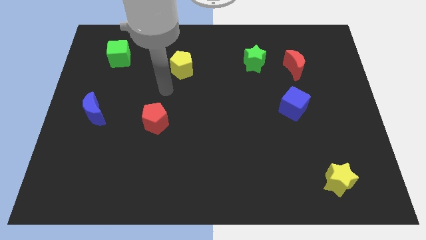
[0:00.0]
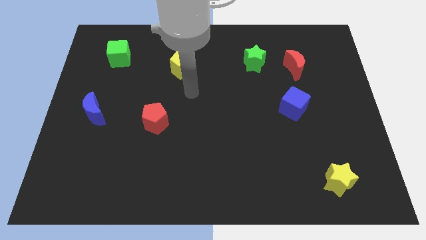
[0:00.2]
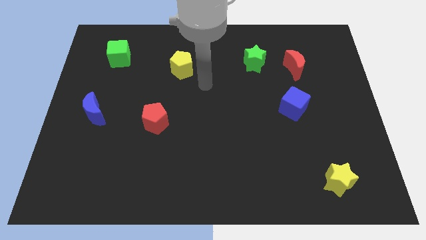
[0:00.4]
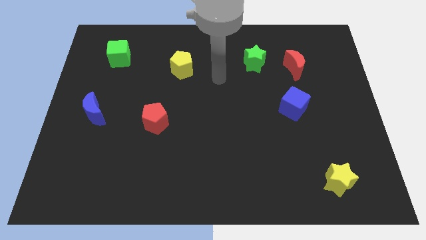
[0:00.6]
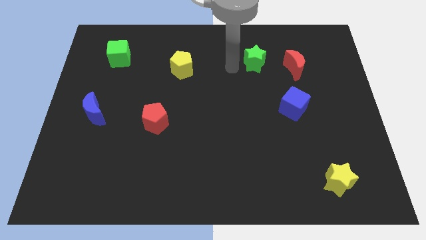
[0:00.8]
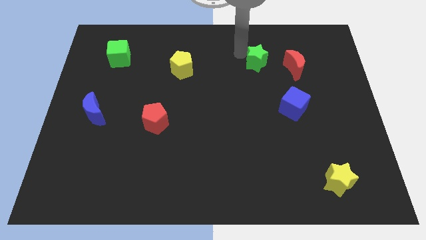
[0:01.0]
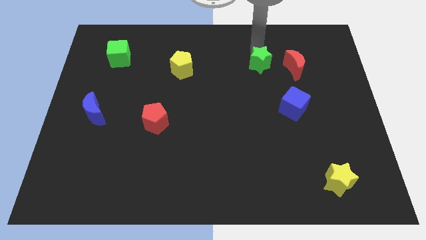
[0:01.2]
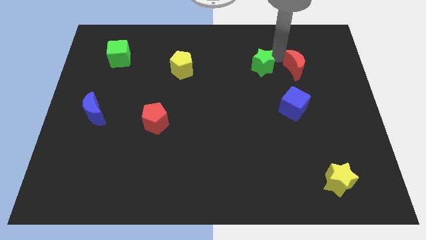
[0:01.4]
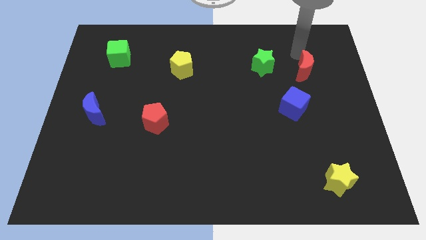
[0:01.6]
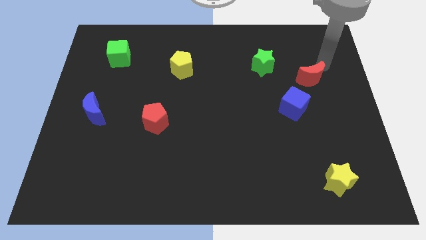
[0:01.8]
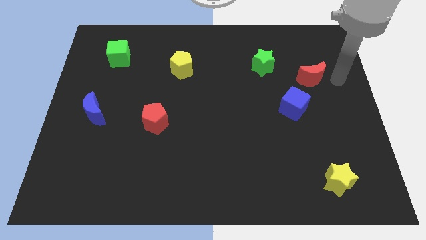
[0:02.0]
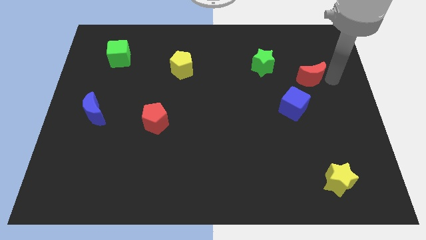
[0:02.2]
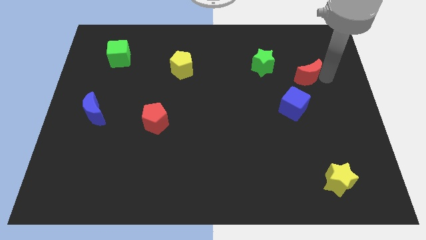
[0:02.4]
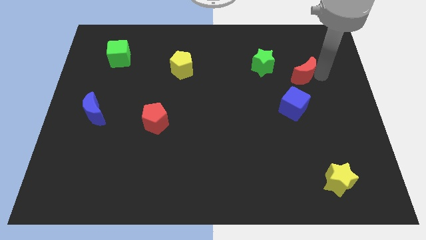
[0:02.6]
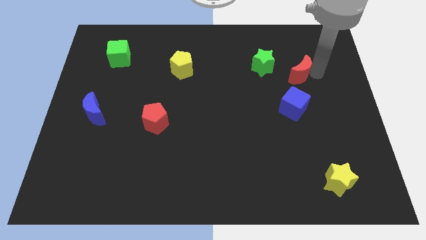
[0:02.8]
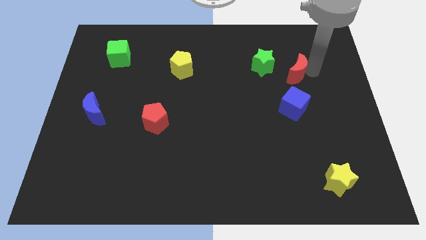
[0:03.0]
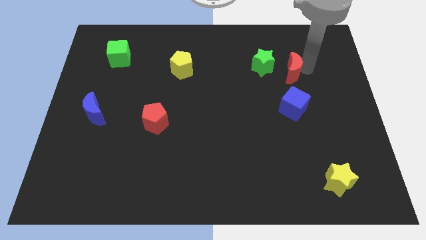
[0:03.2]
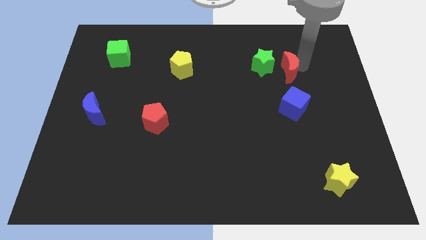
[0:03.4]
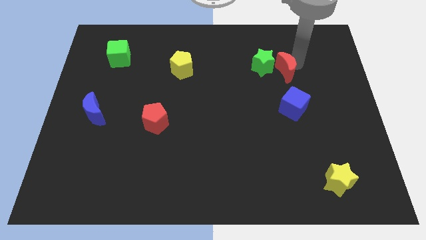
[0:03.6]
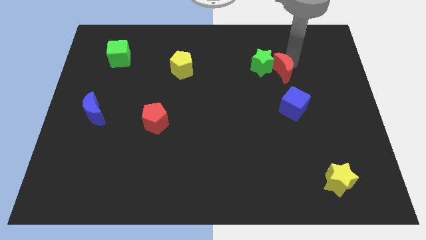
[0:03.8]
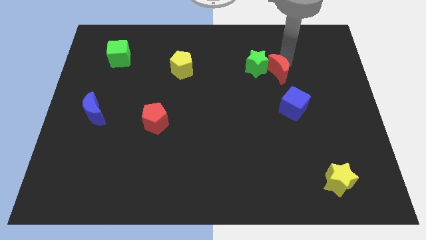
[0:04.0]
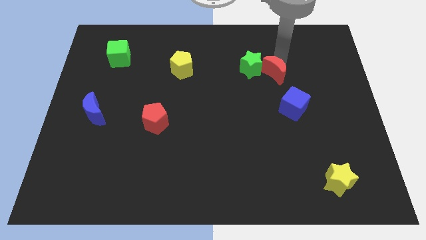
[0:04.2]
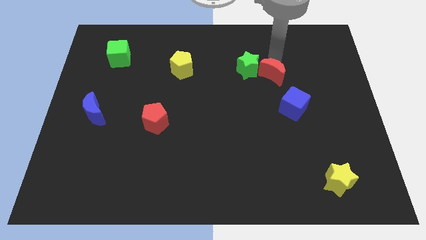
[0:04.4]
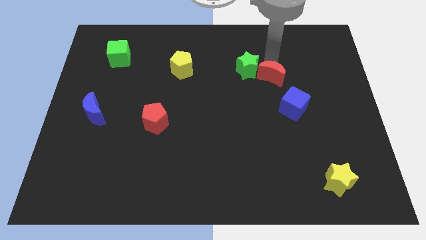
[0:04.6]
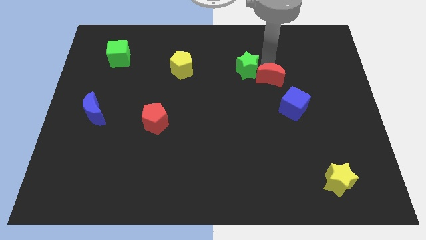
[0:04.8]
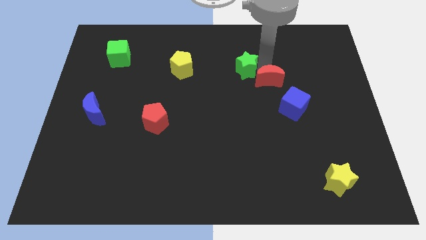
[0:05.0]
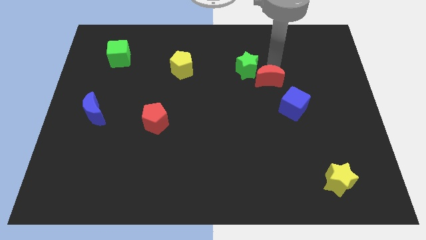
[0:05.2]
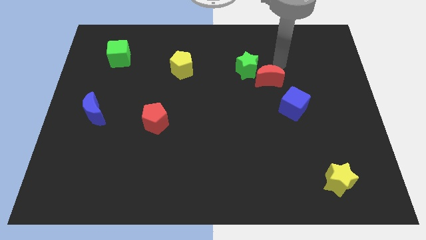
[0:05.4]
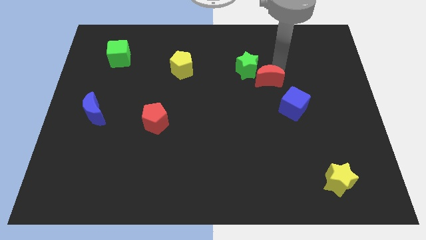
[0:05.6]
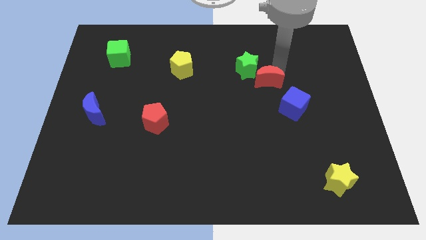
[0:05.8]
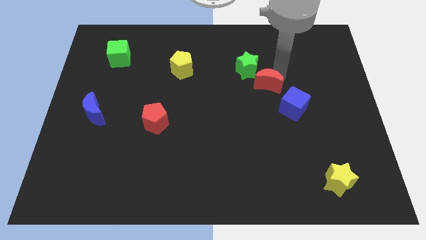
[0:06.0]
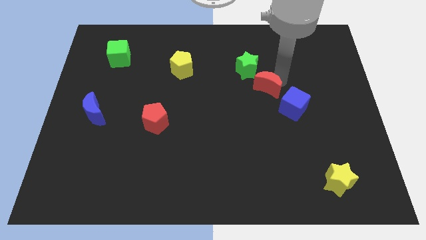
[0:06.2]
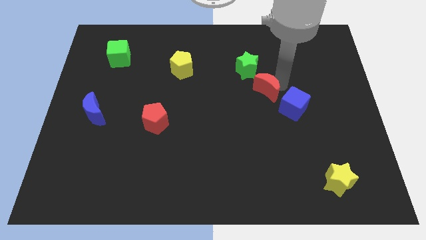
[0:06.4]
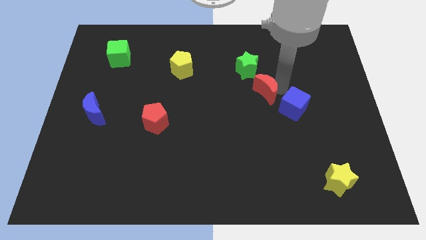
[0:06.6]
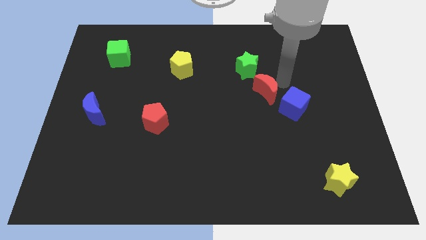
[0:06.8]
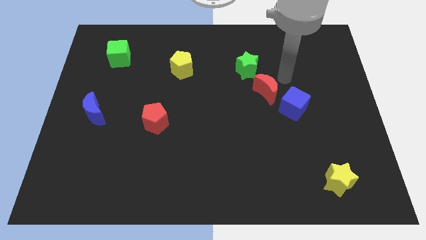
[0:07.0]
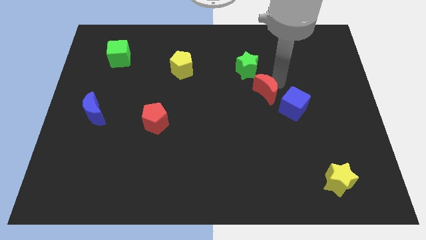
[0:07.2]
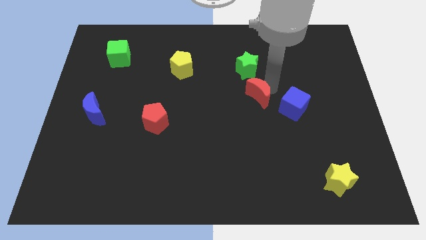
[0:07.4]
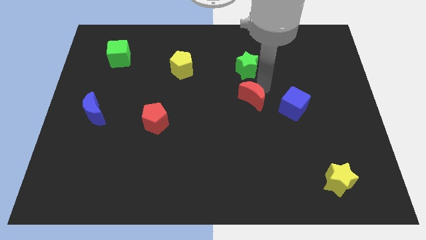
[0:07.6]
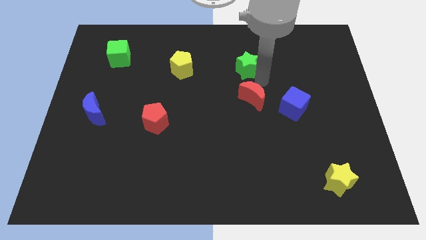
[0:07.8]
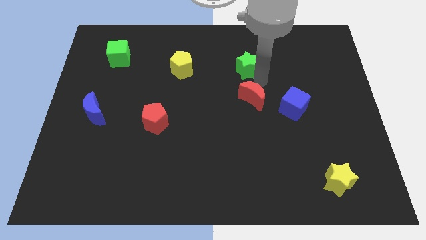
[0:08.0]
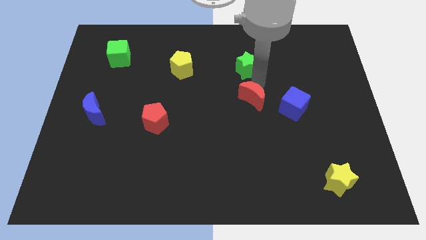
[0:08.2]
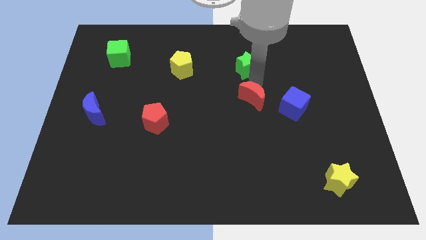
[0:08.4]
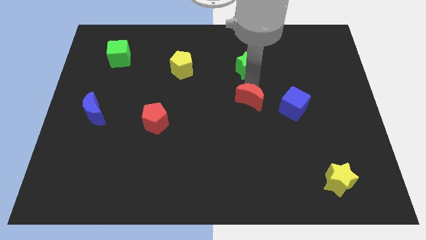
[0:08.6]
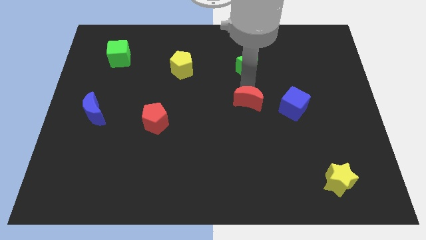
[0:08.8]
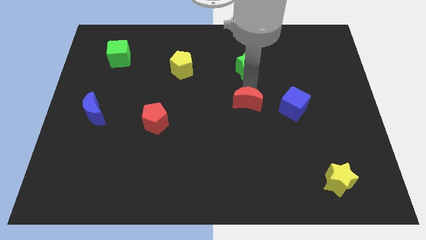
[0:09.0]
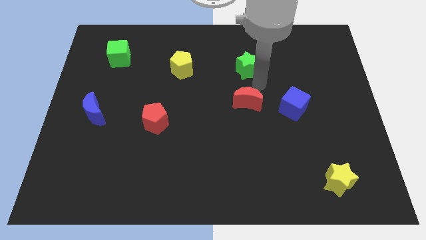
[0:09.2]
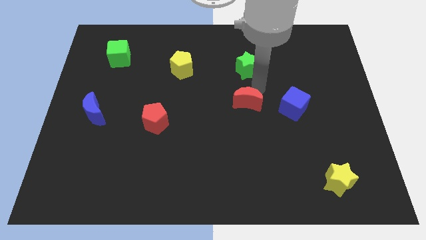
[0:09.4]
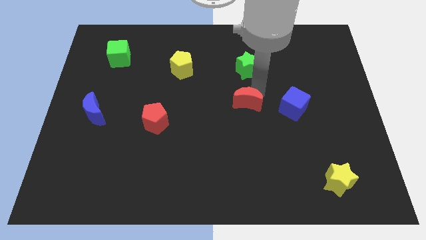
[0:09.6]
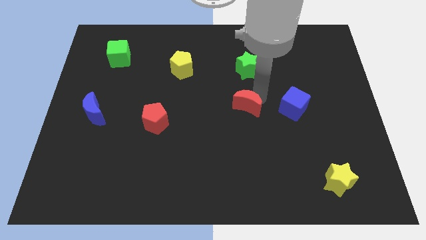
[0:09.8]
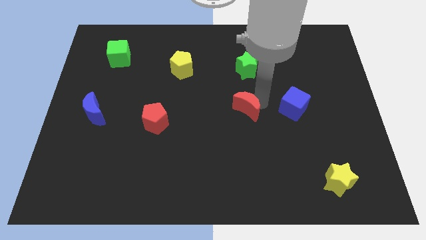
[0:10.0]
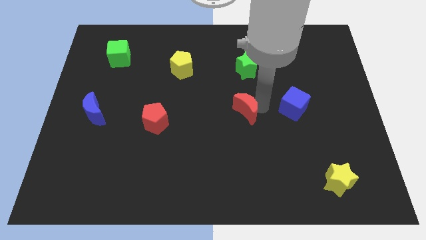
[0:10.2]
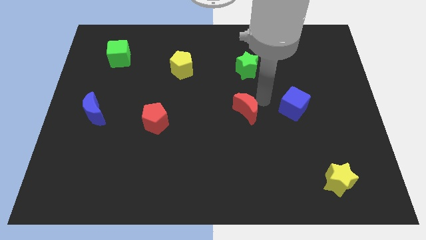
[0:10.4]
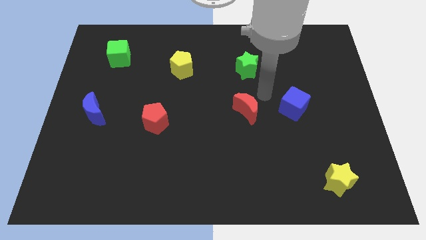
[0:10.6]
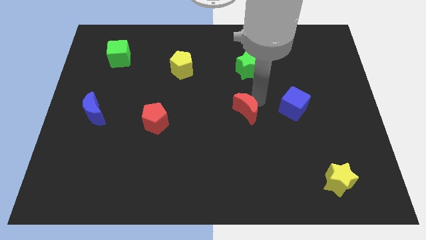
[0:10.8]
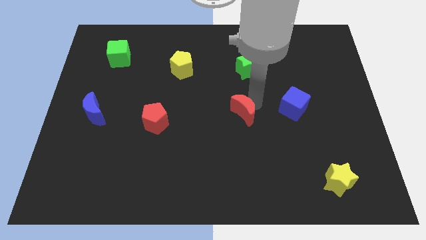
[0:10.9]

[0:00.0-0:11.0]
move the red moon downwards and left

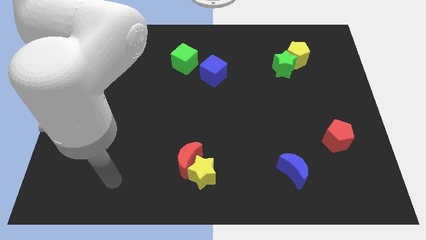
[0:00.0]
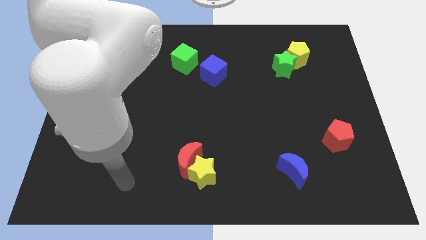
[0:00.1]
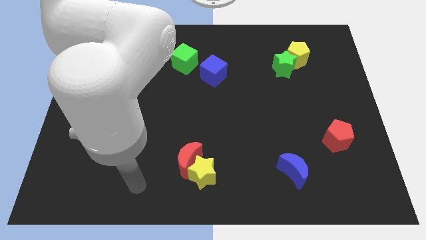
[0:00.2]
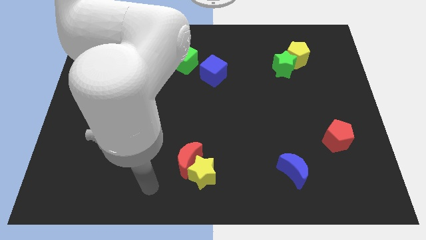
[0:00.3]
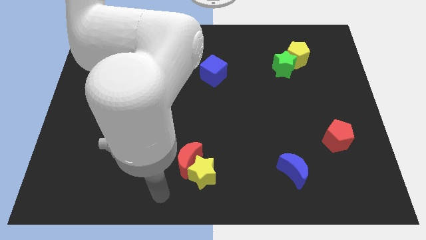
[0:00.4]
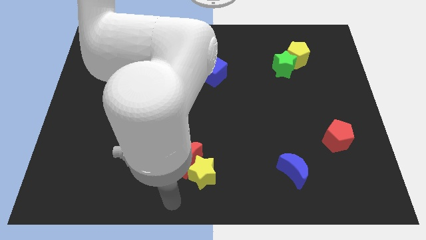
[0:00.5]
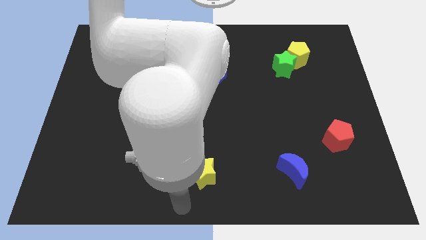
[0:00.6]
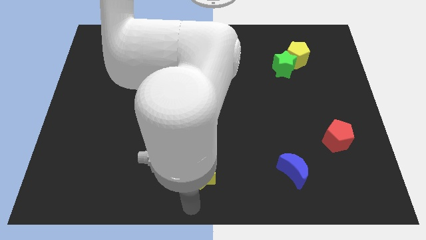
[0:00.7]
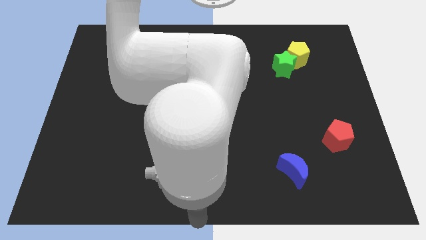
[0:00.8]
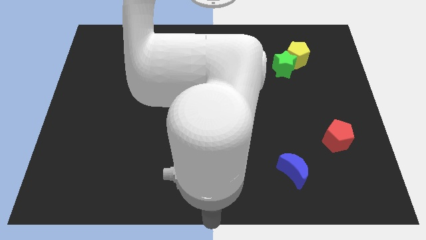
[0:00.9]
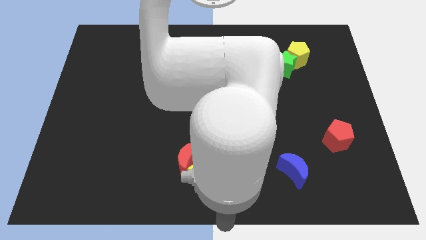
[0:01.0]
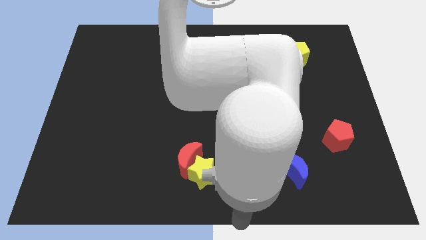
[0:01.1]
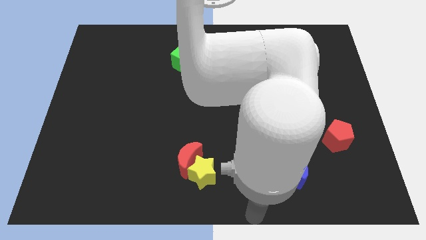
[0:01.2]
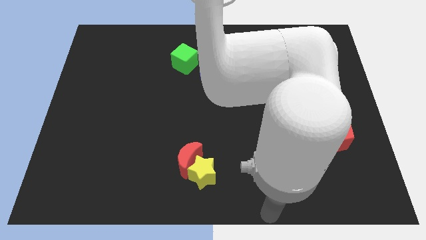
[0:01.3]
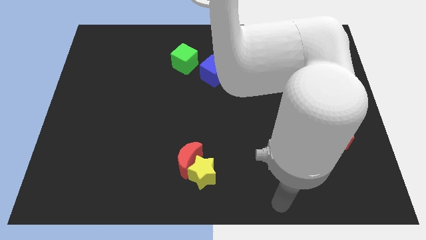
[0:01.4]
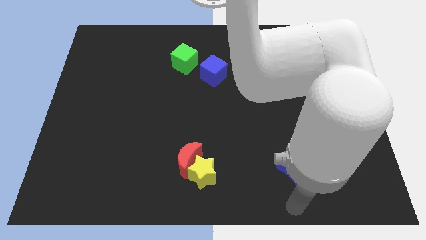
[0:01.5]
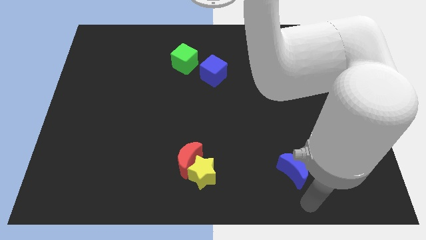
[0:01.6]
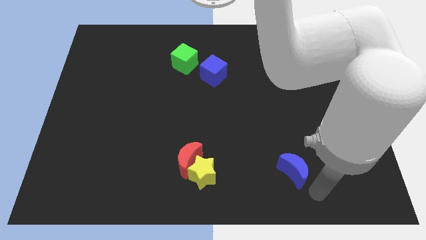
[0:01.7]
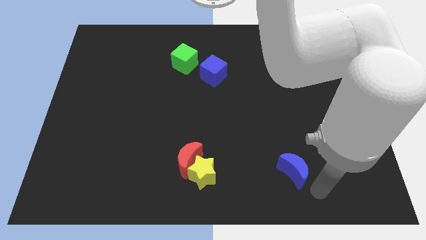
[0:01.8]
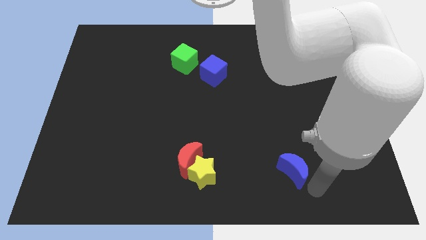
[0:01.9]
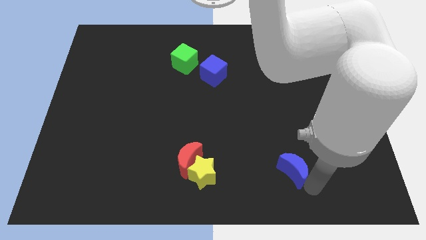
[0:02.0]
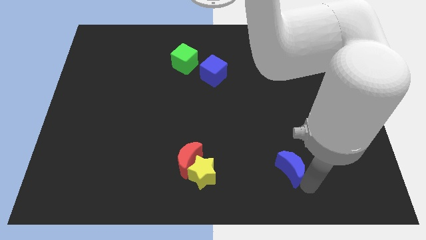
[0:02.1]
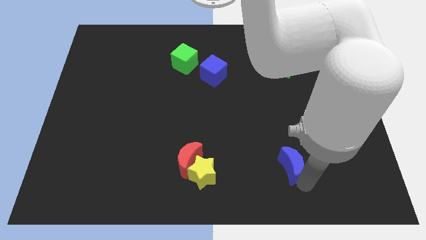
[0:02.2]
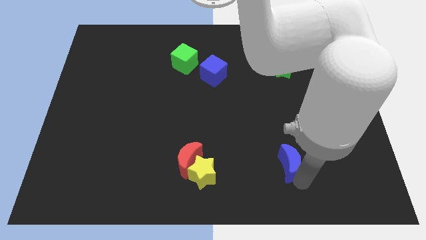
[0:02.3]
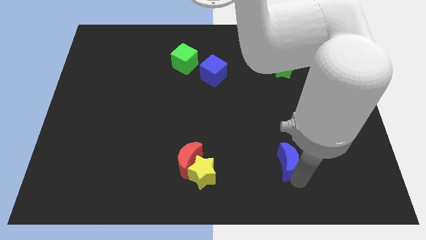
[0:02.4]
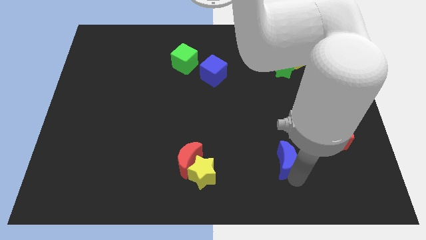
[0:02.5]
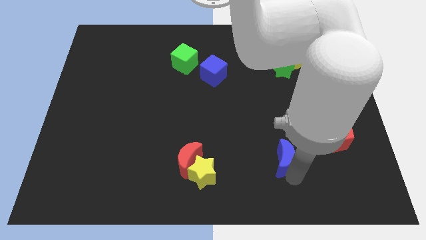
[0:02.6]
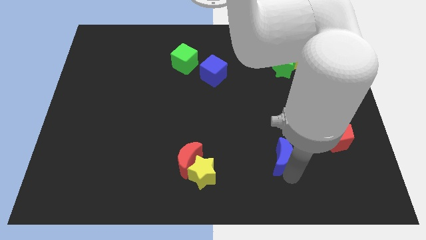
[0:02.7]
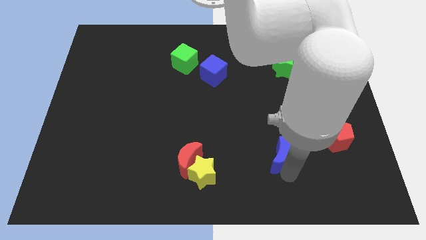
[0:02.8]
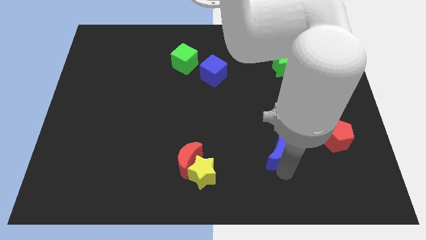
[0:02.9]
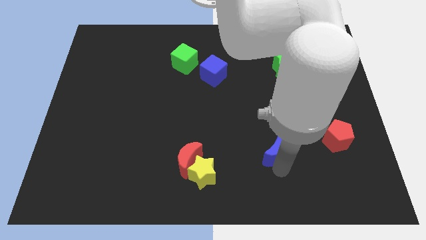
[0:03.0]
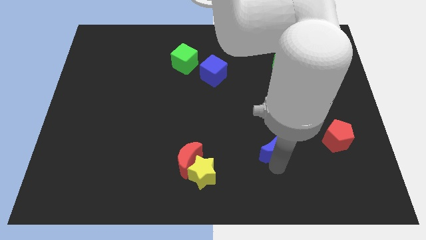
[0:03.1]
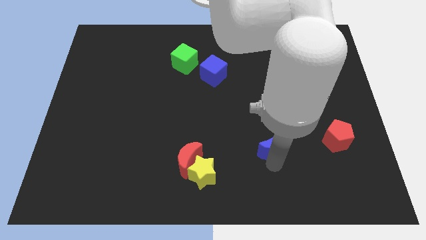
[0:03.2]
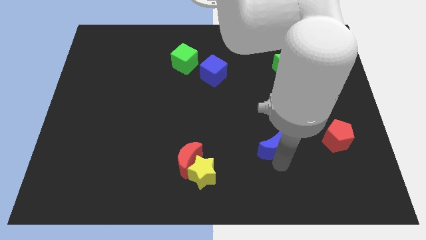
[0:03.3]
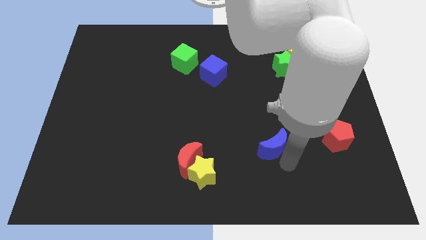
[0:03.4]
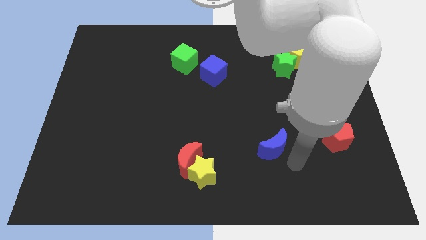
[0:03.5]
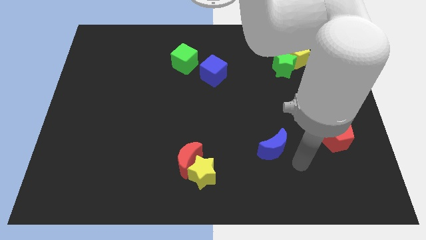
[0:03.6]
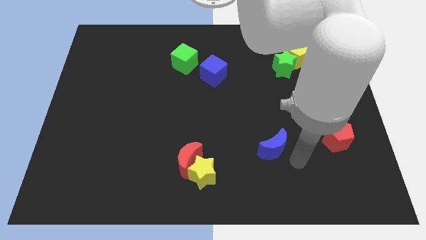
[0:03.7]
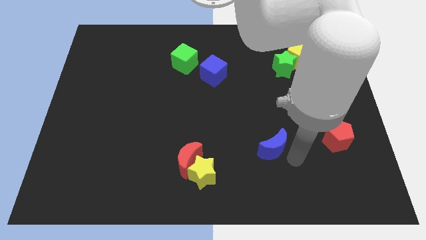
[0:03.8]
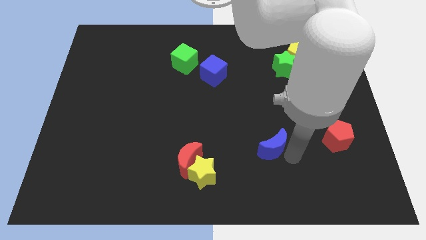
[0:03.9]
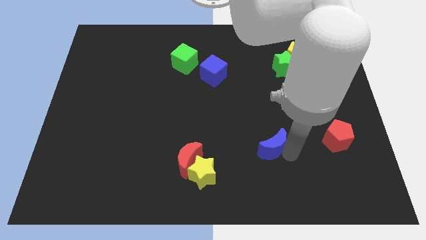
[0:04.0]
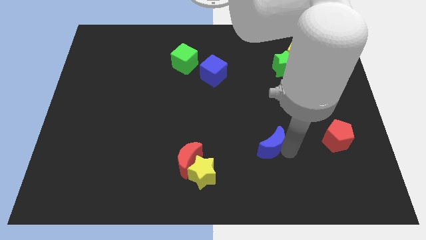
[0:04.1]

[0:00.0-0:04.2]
move the blue moon slightly up and to the left diagonally
